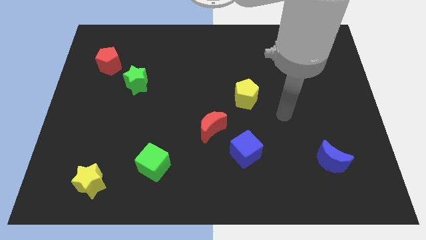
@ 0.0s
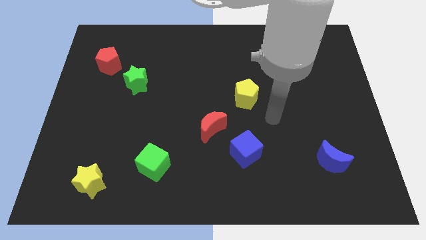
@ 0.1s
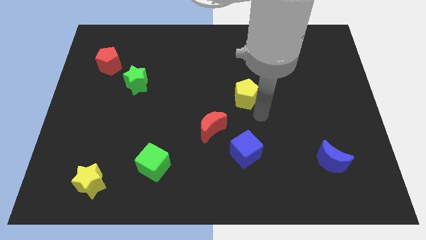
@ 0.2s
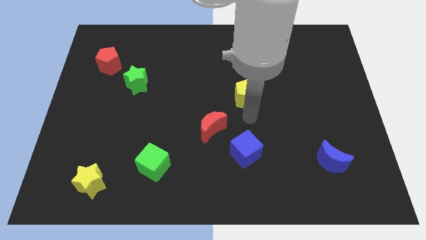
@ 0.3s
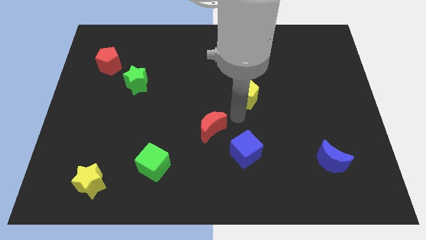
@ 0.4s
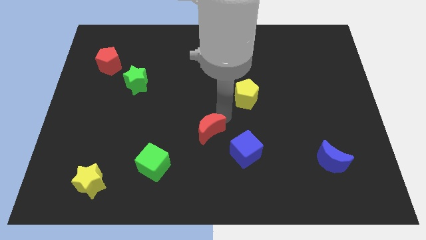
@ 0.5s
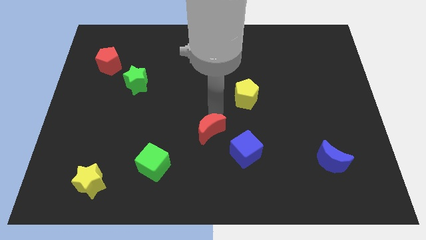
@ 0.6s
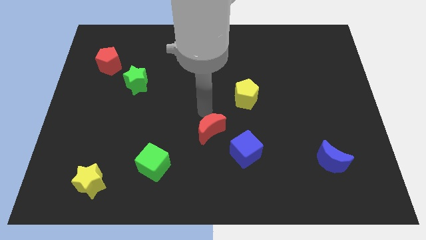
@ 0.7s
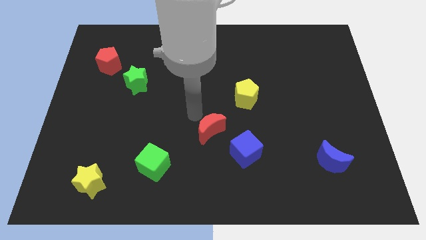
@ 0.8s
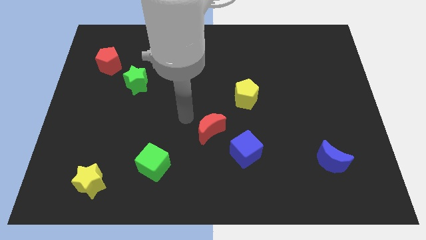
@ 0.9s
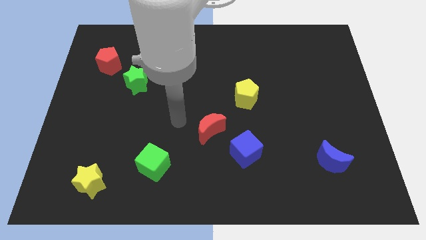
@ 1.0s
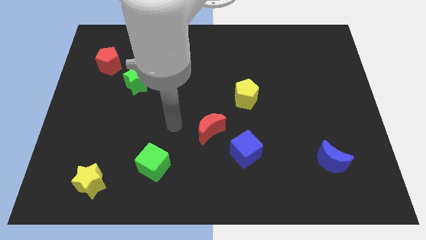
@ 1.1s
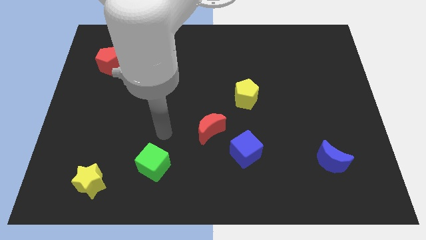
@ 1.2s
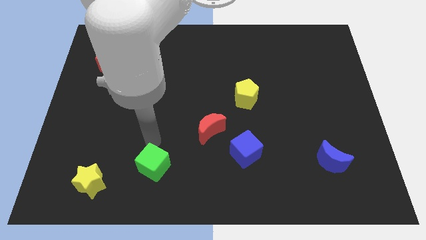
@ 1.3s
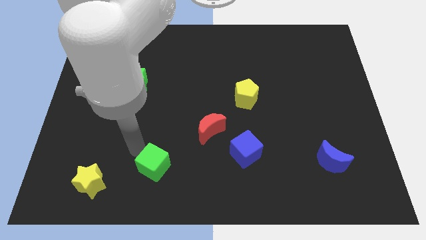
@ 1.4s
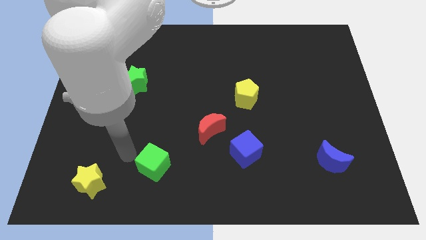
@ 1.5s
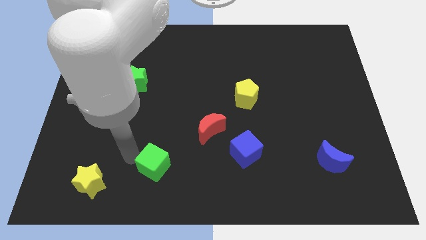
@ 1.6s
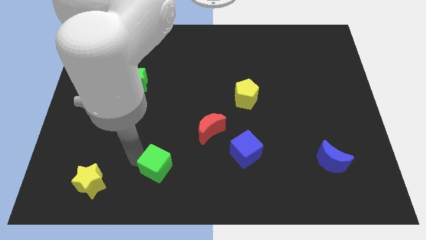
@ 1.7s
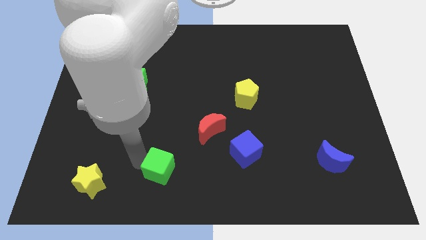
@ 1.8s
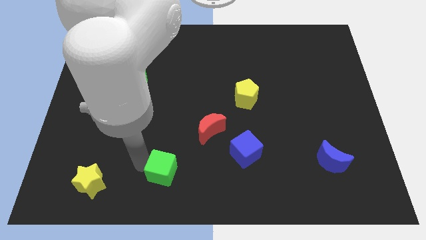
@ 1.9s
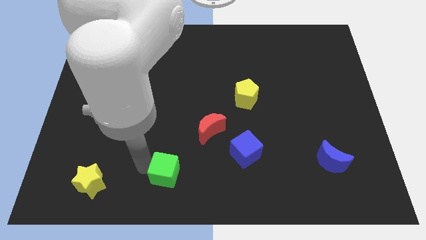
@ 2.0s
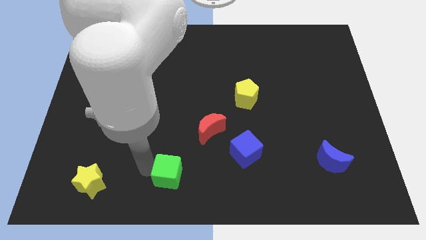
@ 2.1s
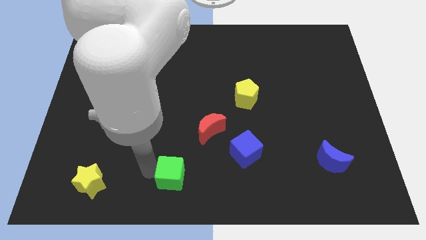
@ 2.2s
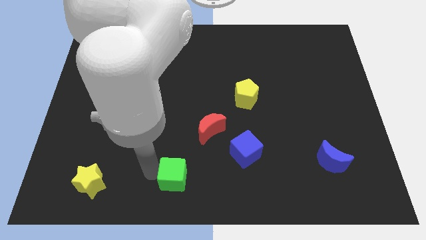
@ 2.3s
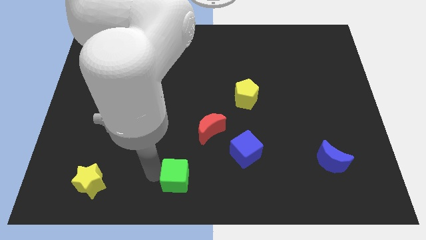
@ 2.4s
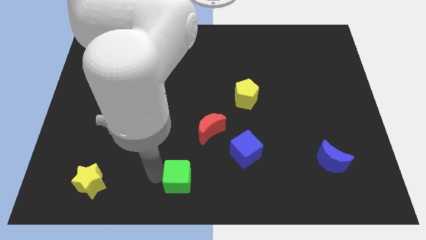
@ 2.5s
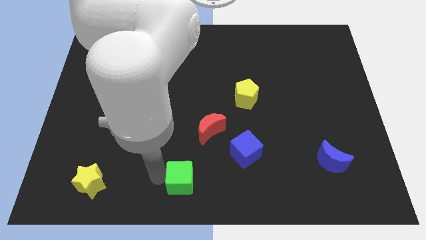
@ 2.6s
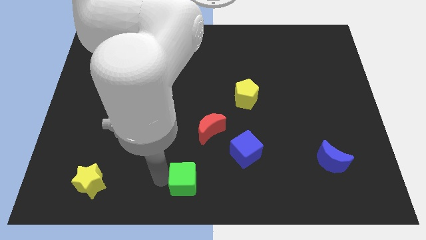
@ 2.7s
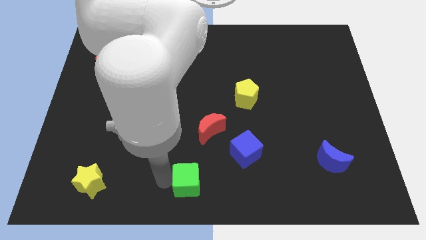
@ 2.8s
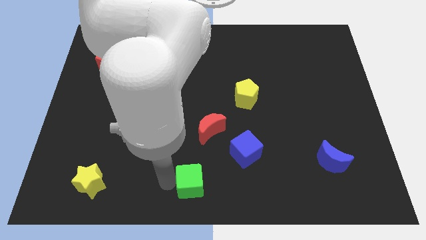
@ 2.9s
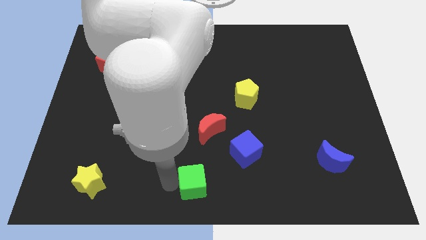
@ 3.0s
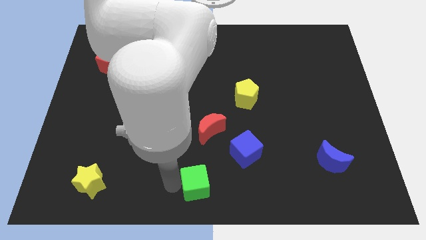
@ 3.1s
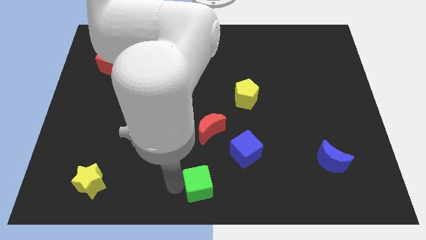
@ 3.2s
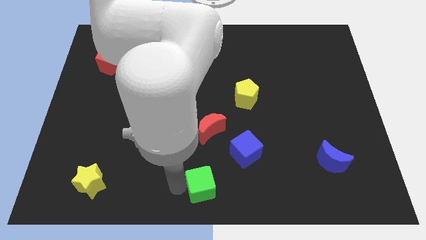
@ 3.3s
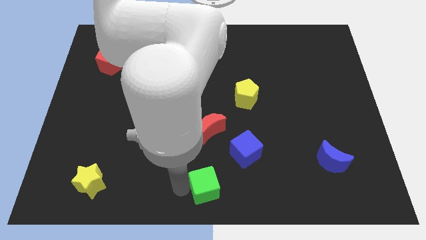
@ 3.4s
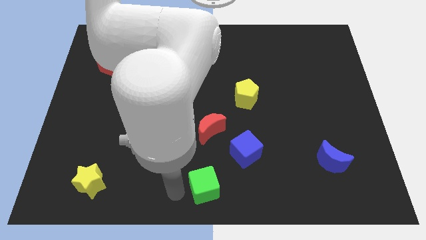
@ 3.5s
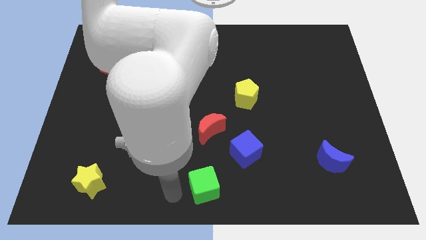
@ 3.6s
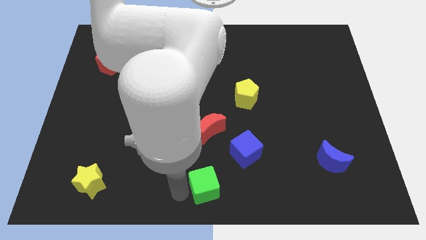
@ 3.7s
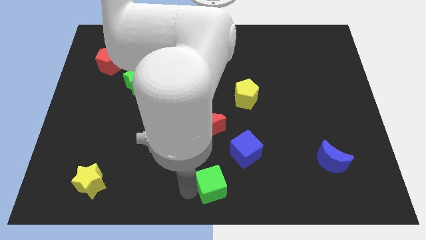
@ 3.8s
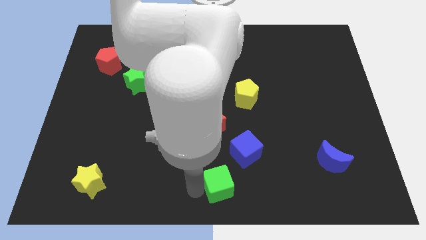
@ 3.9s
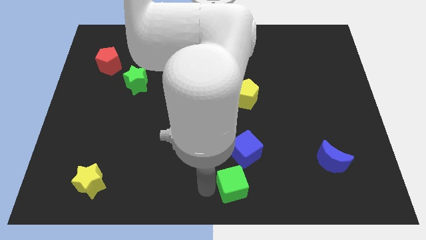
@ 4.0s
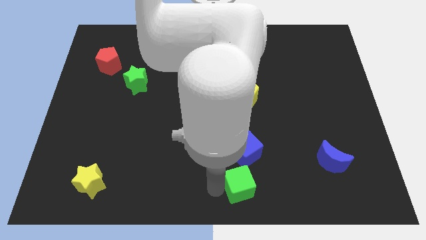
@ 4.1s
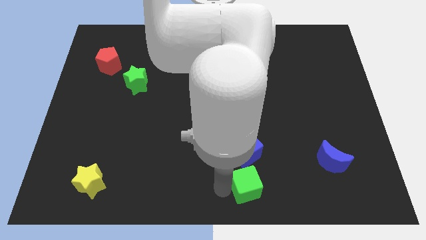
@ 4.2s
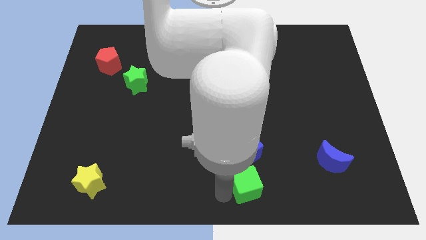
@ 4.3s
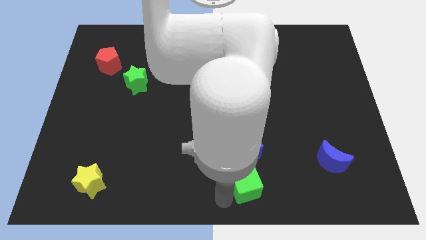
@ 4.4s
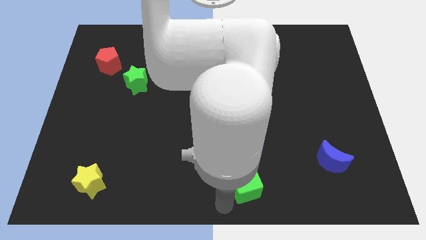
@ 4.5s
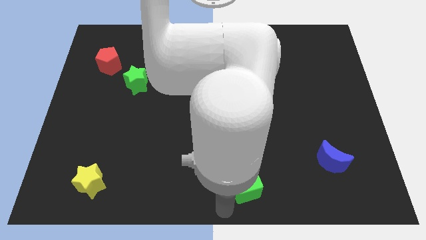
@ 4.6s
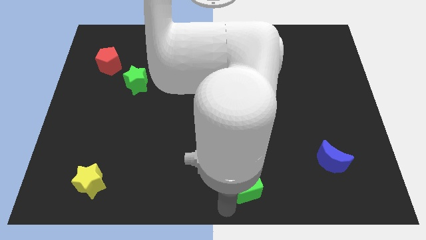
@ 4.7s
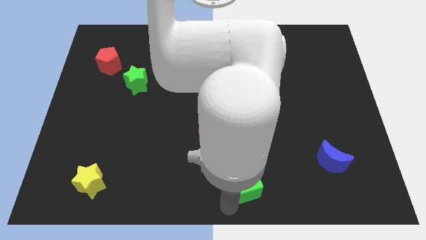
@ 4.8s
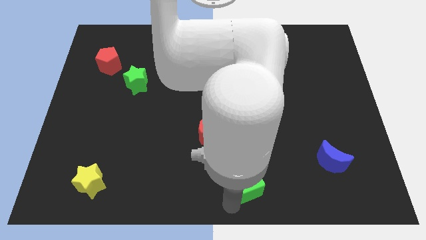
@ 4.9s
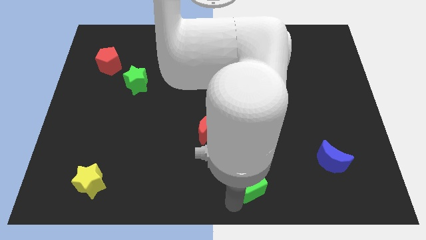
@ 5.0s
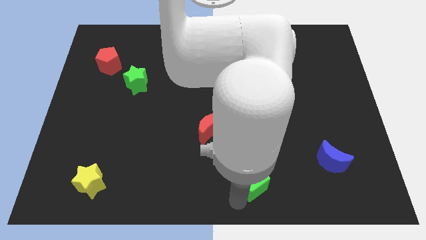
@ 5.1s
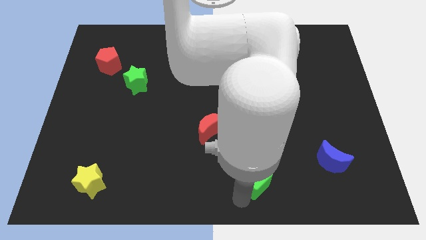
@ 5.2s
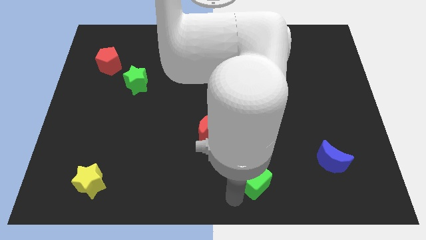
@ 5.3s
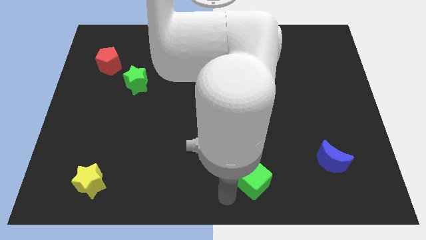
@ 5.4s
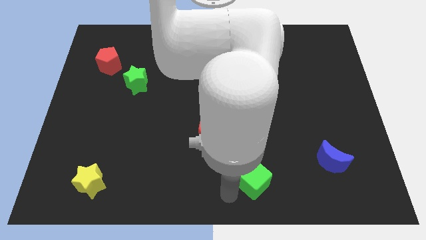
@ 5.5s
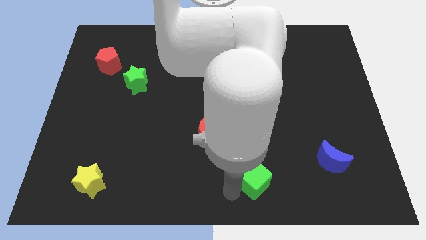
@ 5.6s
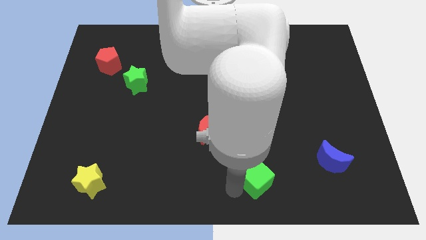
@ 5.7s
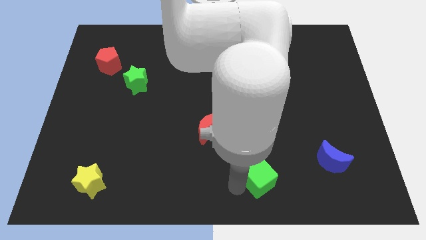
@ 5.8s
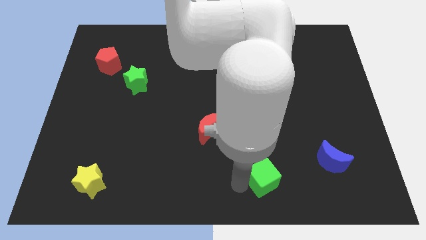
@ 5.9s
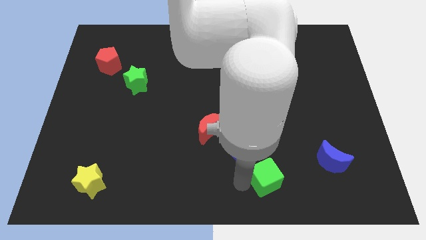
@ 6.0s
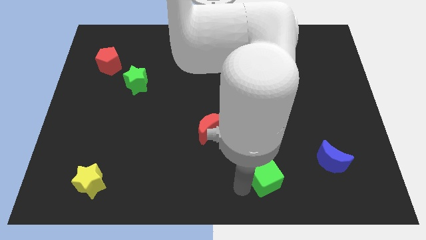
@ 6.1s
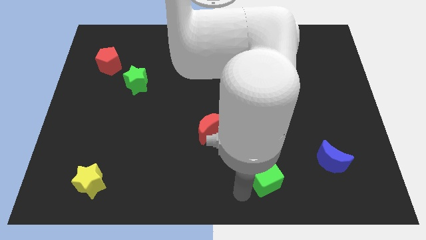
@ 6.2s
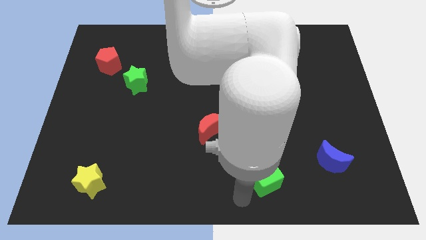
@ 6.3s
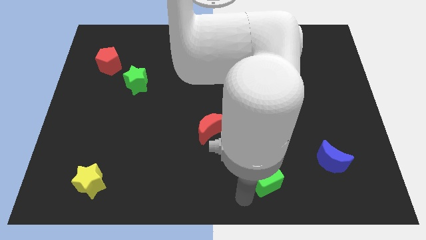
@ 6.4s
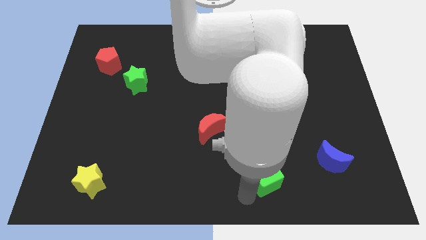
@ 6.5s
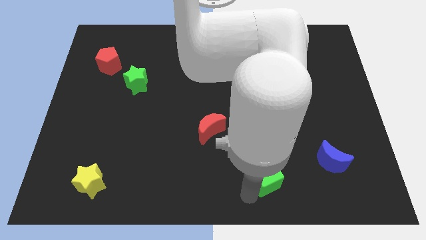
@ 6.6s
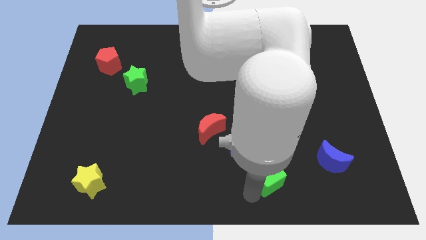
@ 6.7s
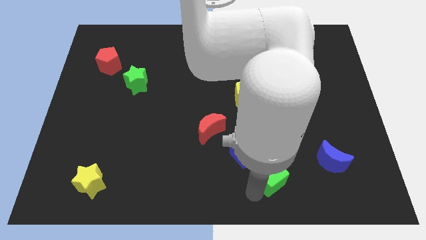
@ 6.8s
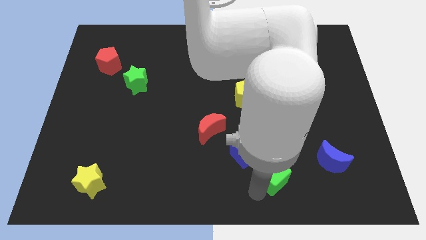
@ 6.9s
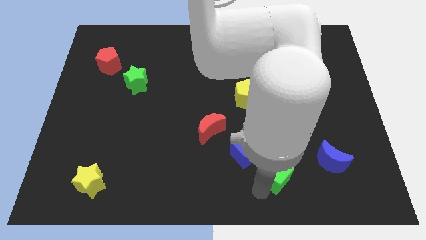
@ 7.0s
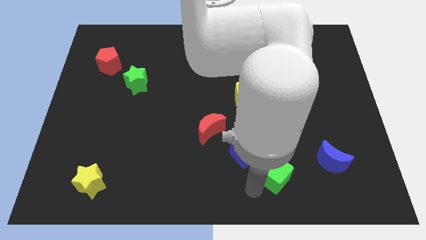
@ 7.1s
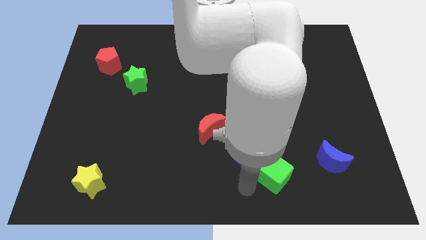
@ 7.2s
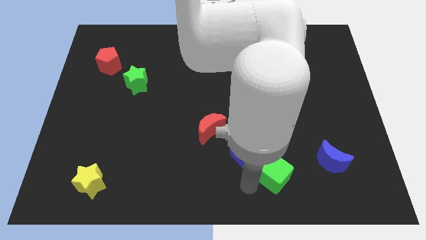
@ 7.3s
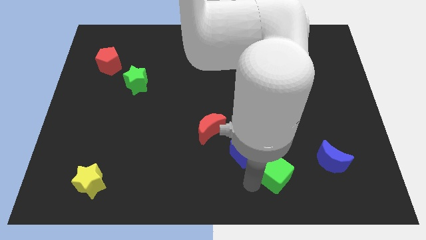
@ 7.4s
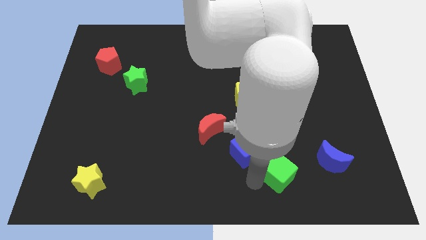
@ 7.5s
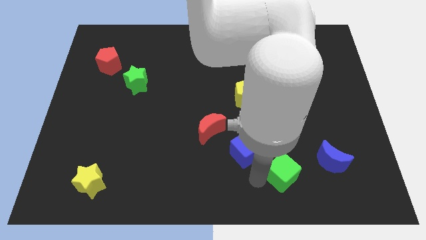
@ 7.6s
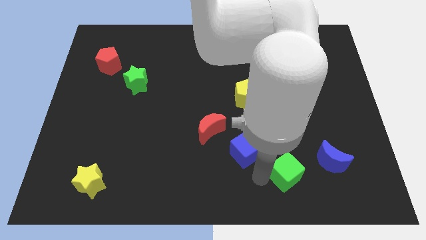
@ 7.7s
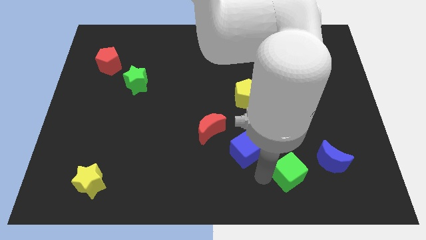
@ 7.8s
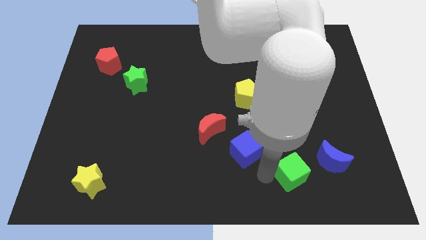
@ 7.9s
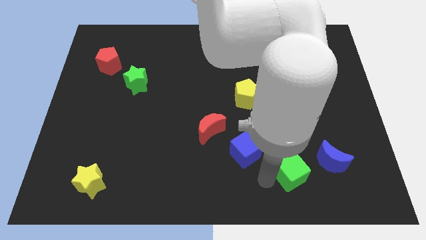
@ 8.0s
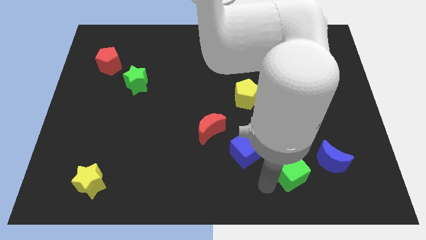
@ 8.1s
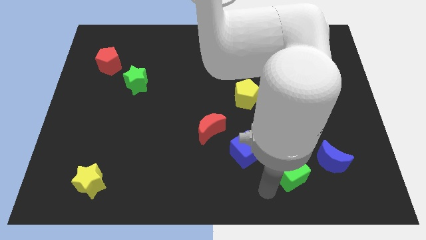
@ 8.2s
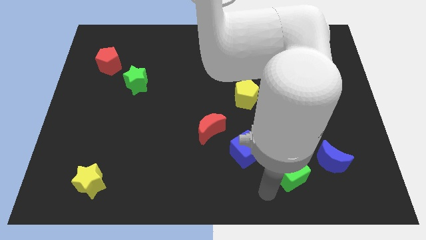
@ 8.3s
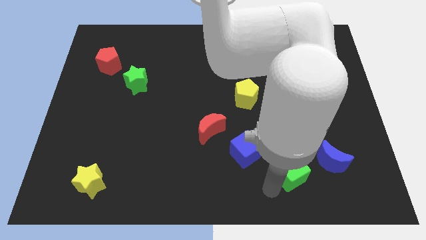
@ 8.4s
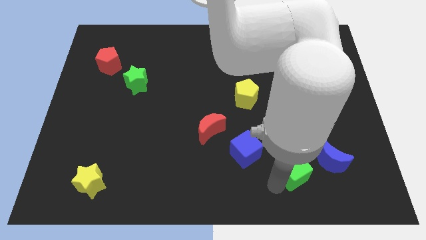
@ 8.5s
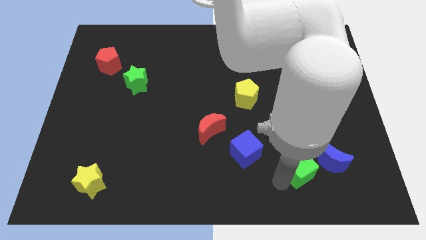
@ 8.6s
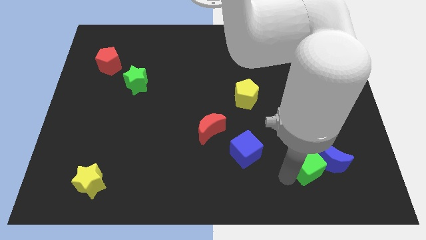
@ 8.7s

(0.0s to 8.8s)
push the green cube towards the blue moon
